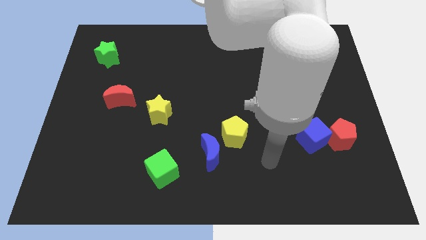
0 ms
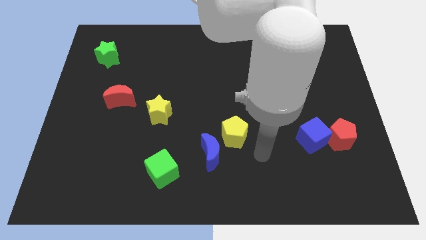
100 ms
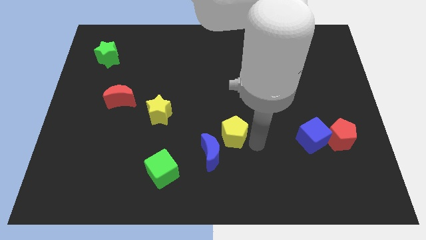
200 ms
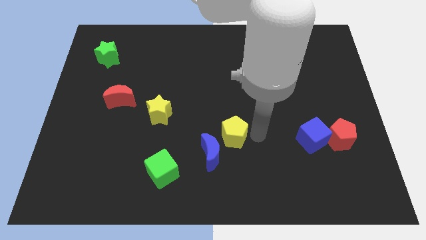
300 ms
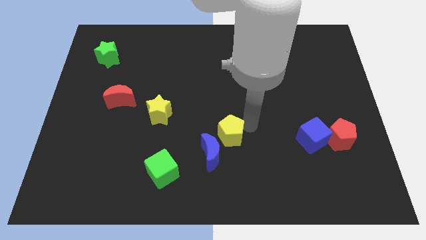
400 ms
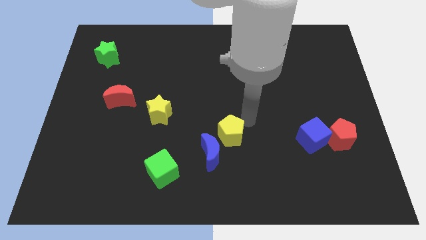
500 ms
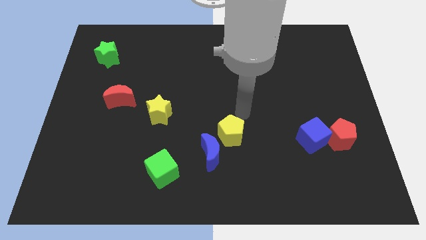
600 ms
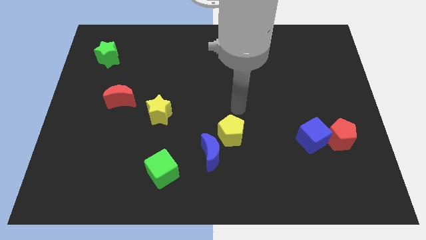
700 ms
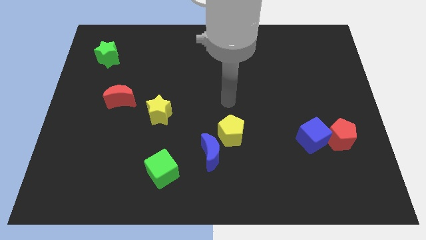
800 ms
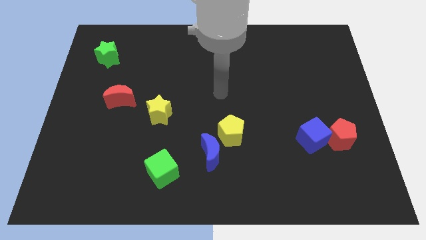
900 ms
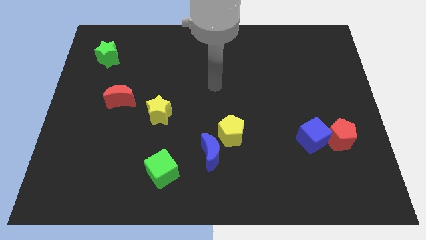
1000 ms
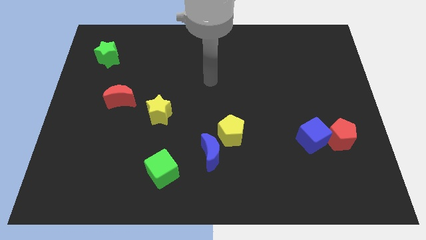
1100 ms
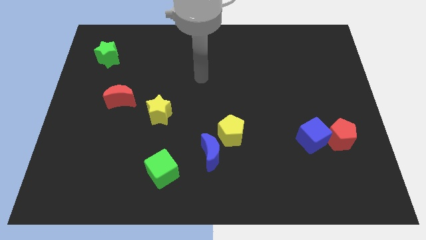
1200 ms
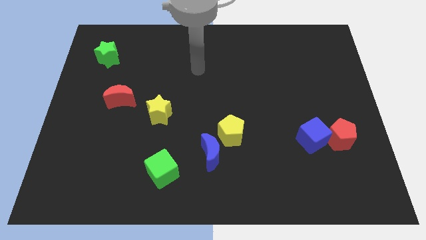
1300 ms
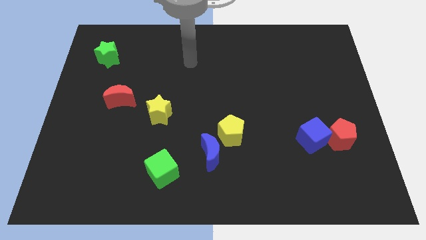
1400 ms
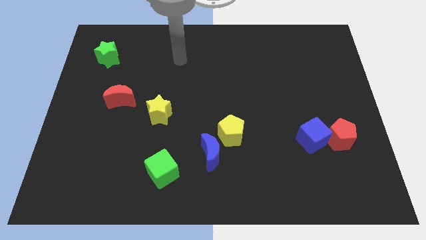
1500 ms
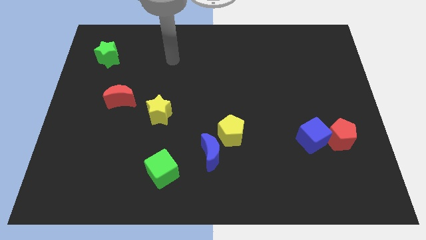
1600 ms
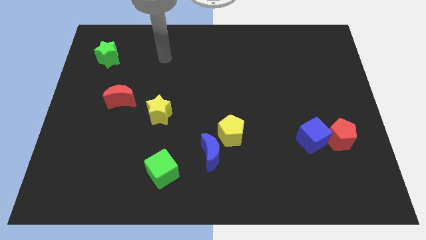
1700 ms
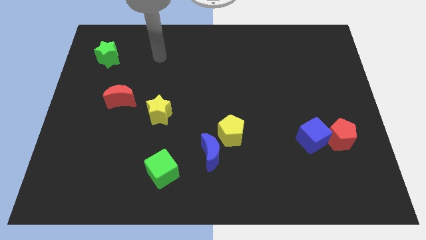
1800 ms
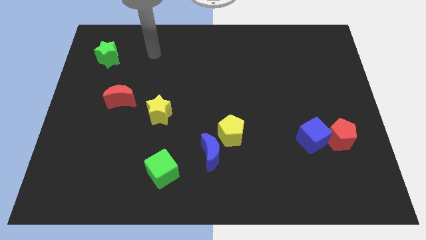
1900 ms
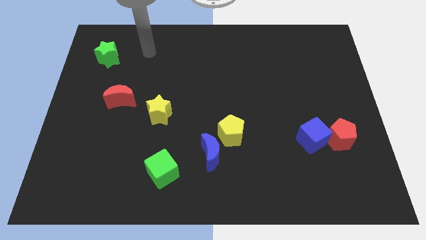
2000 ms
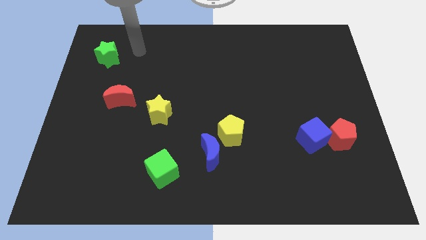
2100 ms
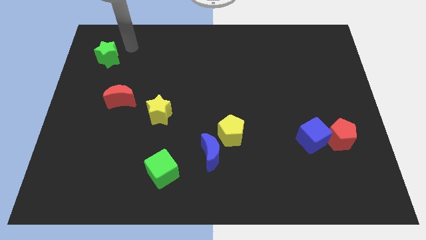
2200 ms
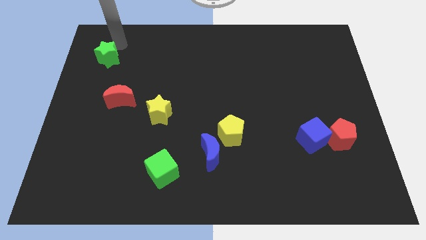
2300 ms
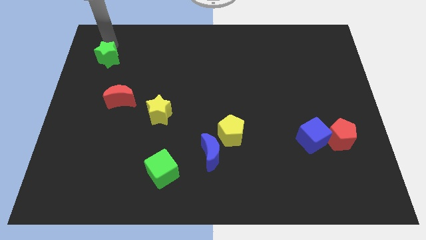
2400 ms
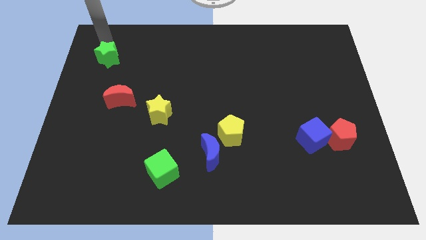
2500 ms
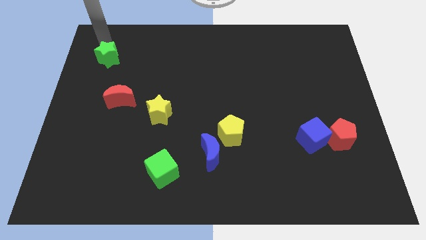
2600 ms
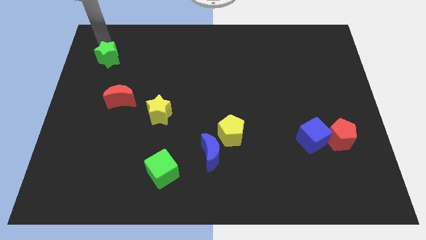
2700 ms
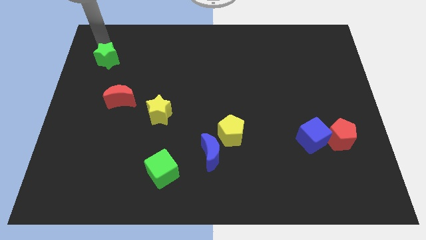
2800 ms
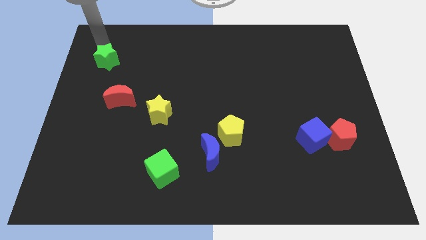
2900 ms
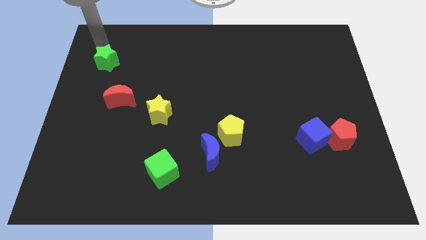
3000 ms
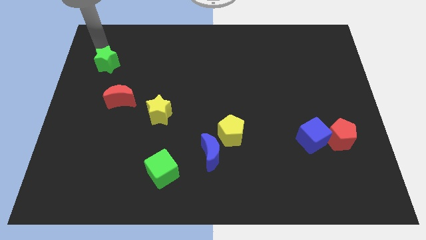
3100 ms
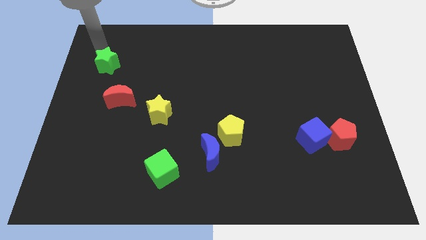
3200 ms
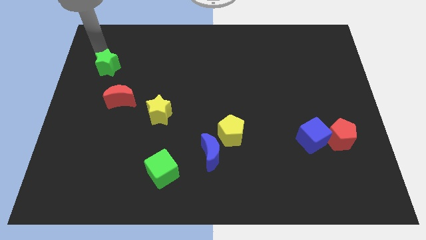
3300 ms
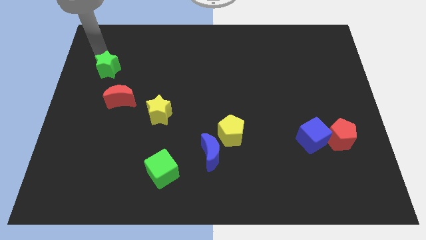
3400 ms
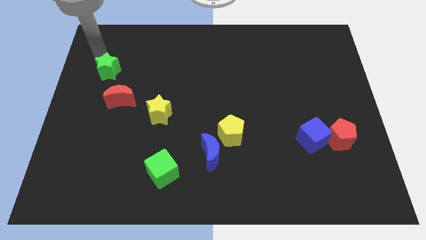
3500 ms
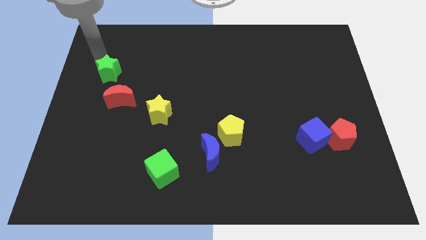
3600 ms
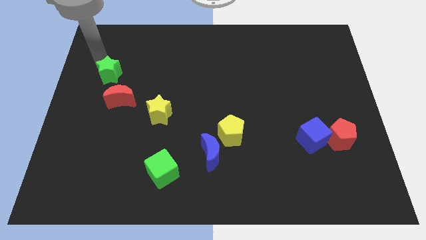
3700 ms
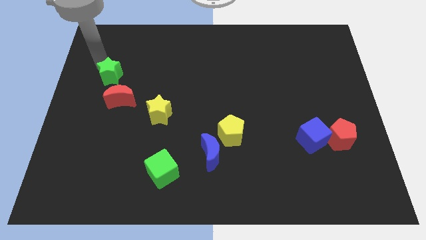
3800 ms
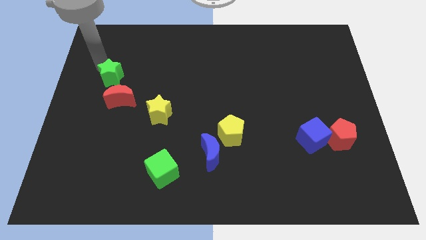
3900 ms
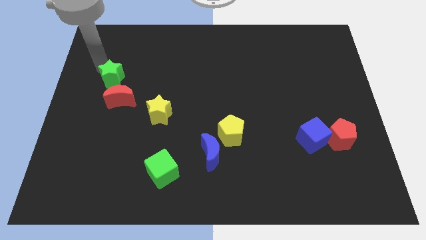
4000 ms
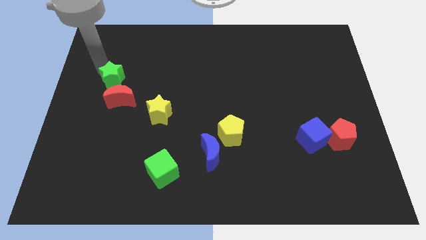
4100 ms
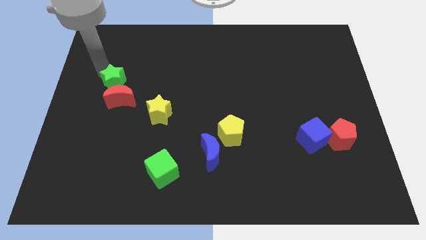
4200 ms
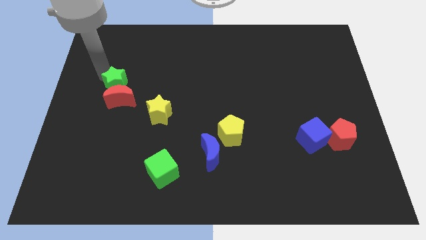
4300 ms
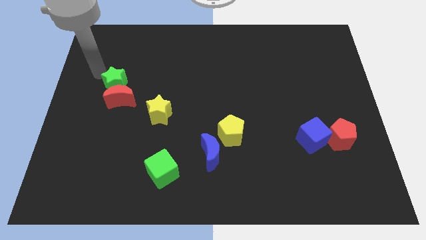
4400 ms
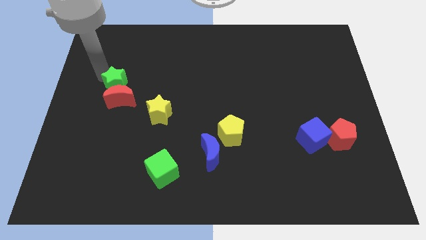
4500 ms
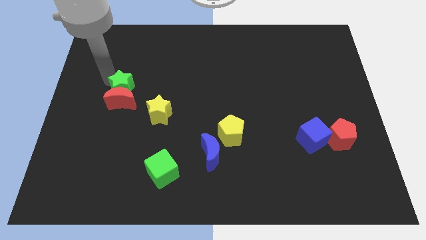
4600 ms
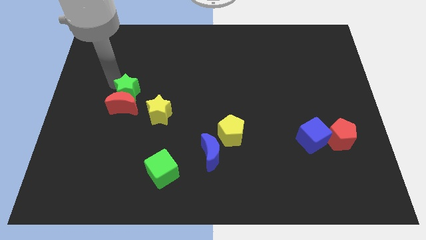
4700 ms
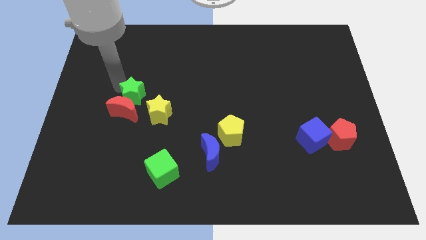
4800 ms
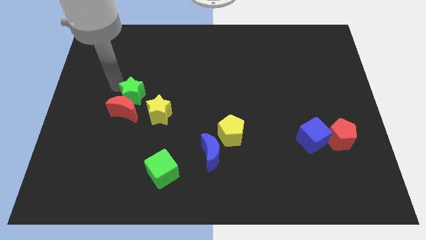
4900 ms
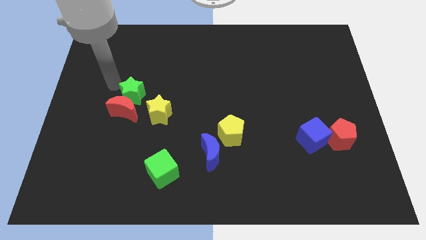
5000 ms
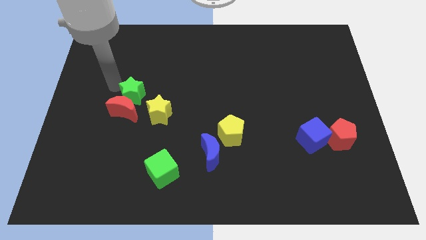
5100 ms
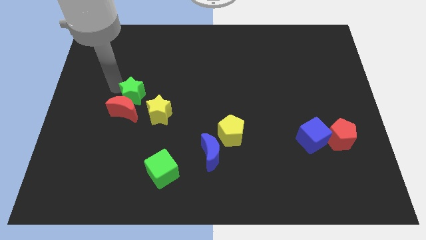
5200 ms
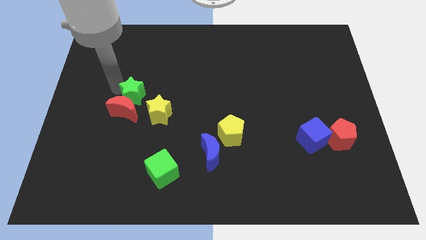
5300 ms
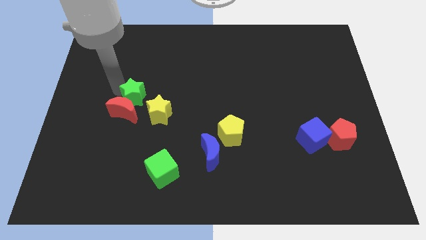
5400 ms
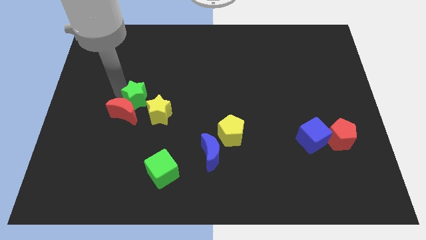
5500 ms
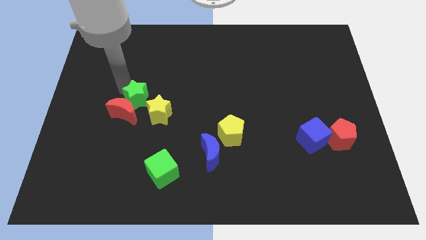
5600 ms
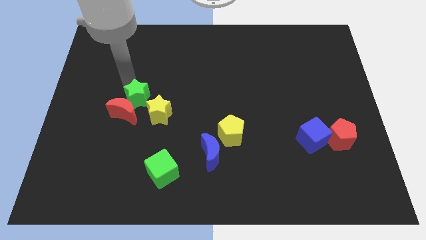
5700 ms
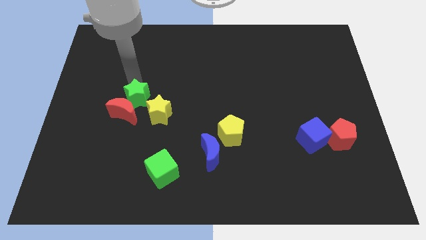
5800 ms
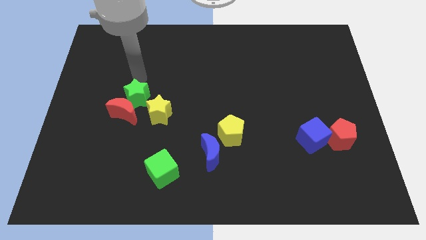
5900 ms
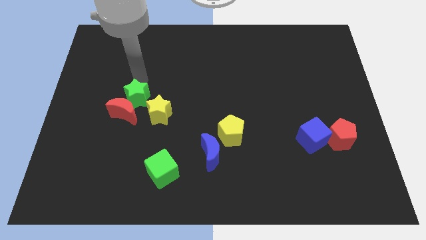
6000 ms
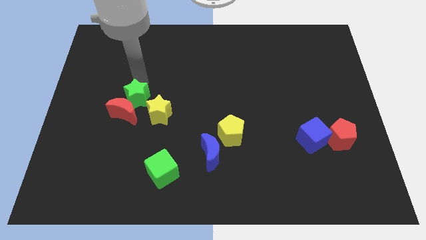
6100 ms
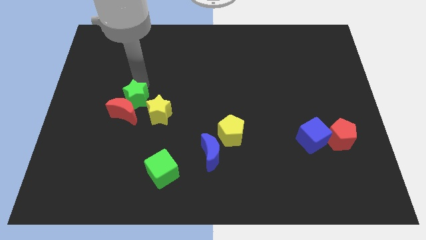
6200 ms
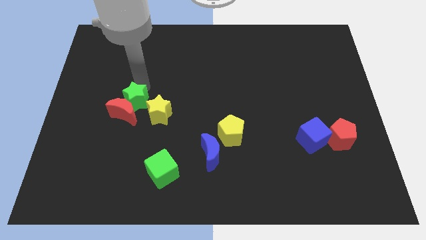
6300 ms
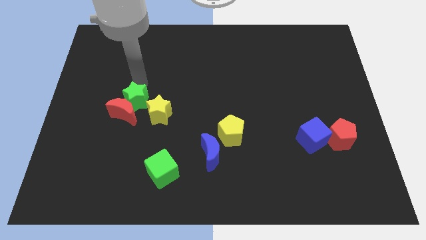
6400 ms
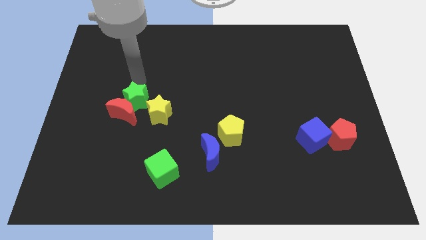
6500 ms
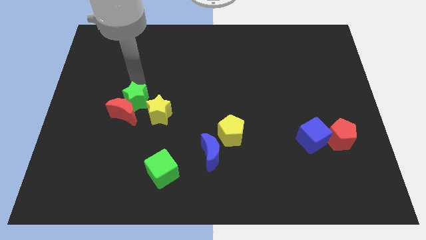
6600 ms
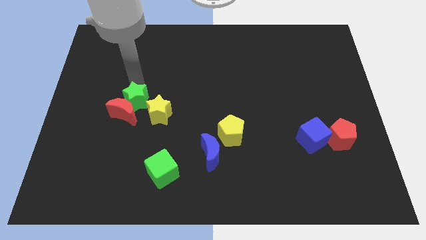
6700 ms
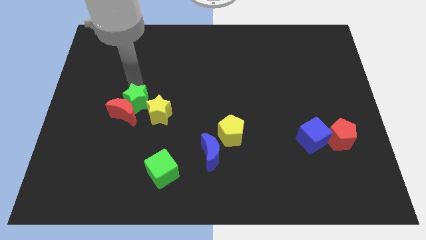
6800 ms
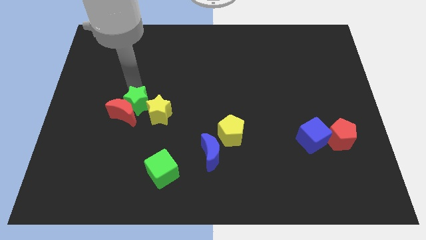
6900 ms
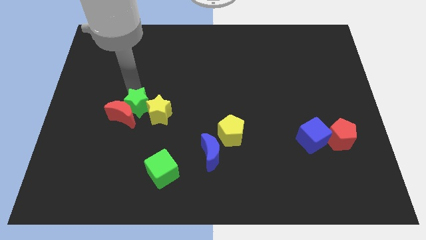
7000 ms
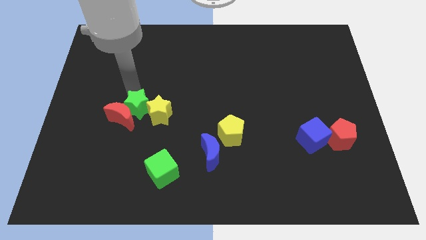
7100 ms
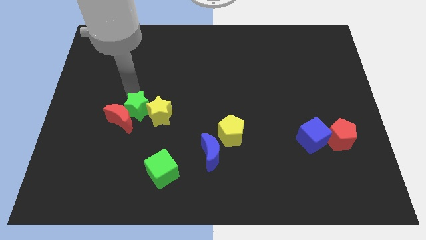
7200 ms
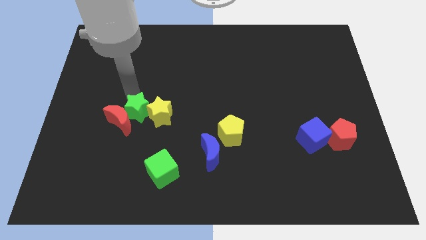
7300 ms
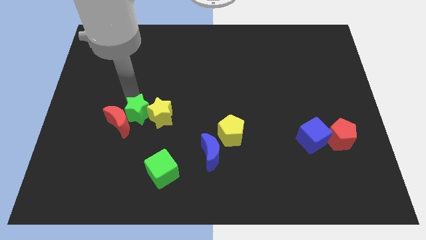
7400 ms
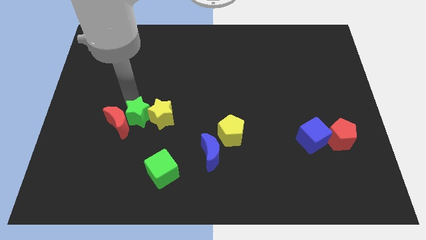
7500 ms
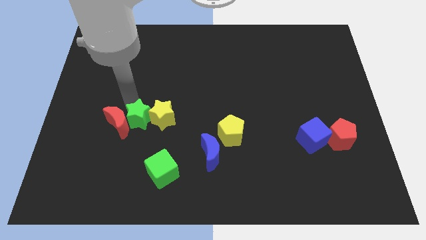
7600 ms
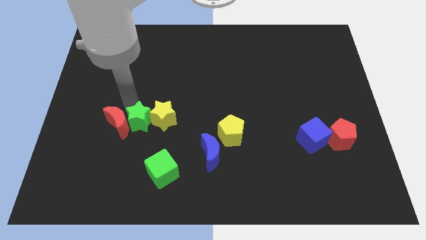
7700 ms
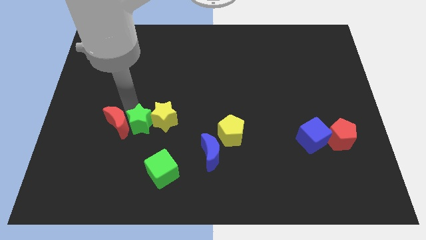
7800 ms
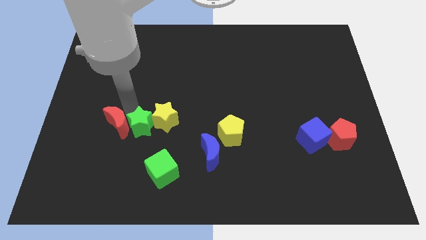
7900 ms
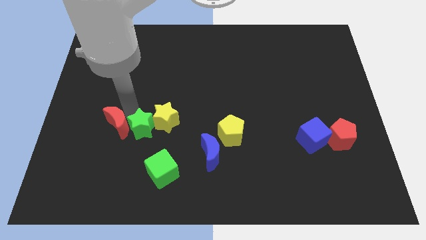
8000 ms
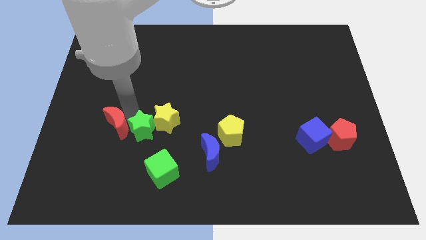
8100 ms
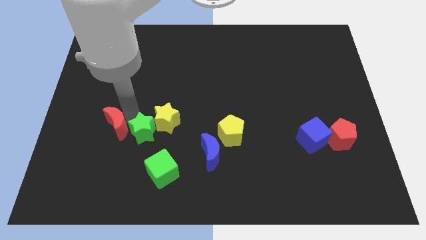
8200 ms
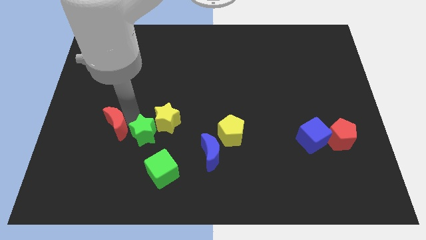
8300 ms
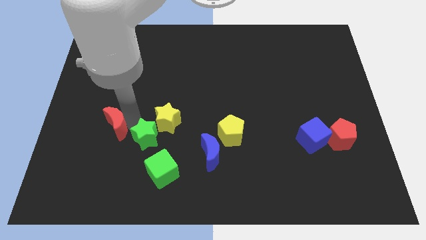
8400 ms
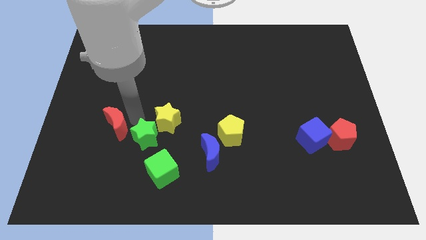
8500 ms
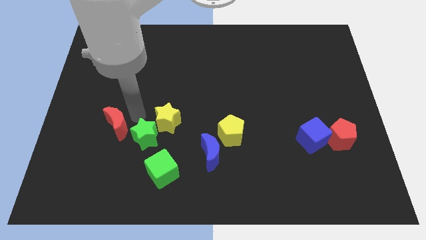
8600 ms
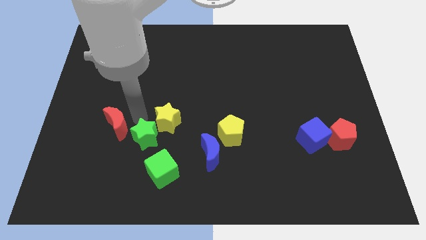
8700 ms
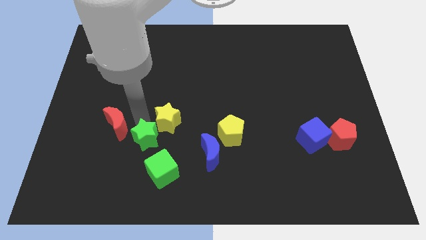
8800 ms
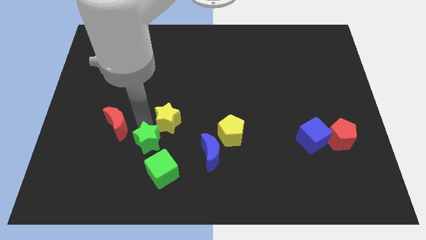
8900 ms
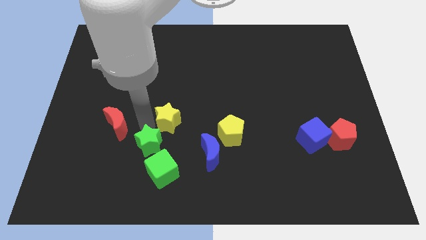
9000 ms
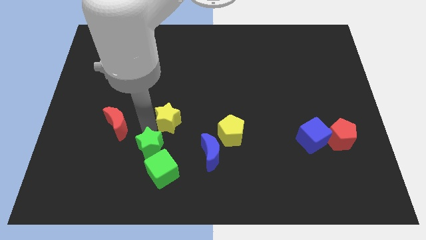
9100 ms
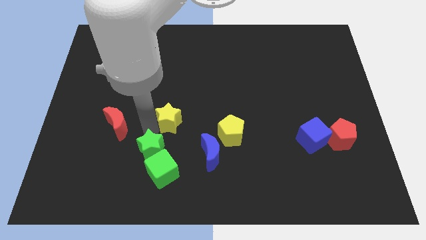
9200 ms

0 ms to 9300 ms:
push the green star close to the green cube
